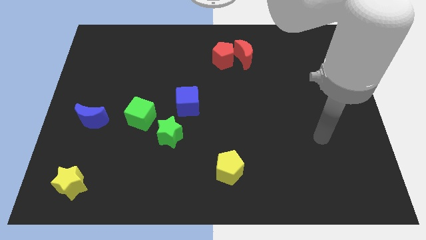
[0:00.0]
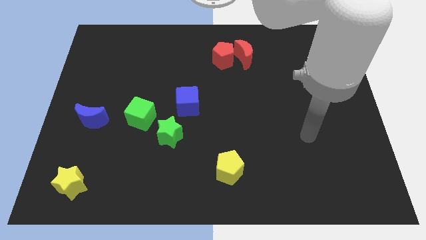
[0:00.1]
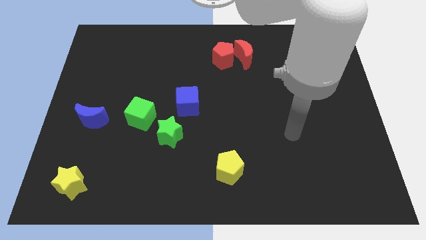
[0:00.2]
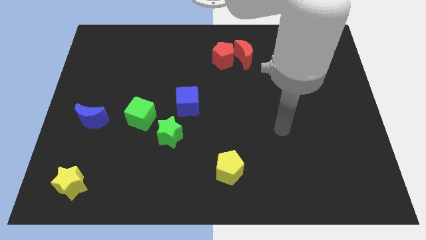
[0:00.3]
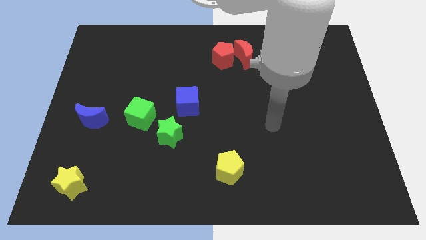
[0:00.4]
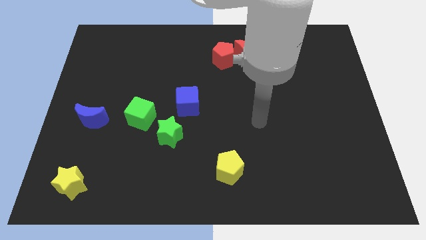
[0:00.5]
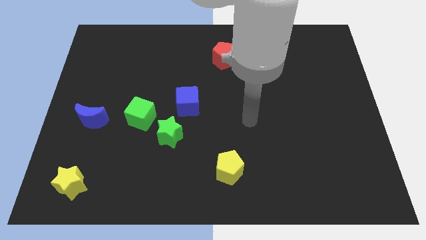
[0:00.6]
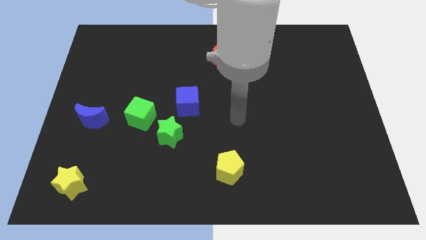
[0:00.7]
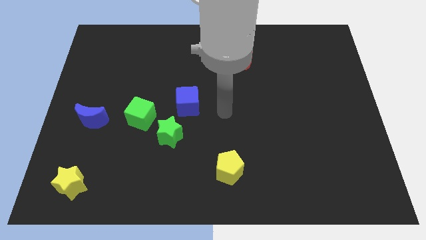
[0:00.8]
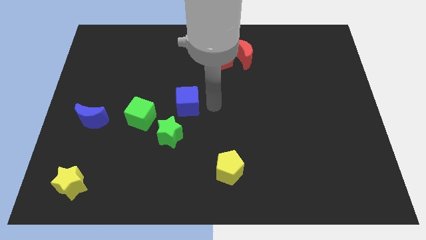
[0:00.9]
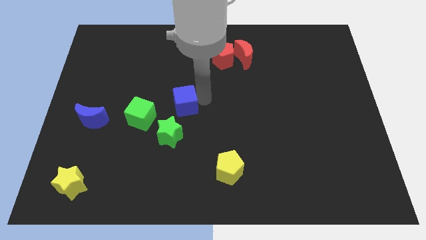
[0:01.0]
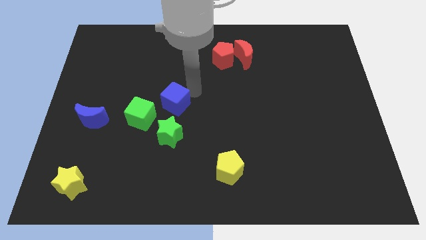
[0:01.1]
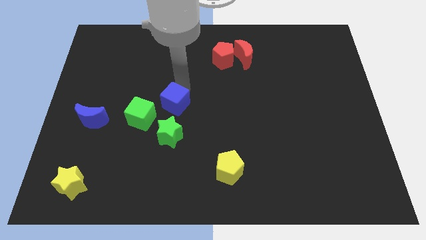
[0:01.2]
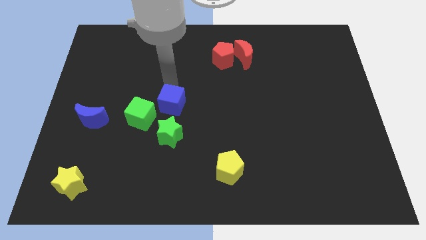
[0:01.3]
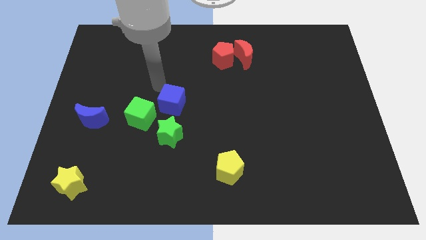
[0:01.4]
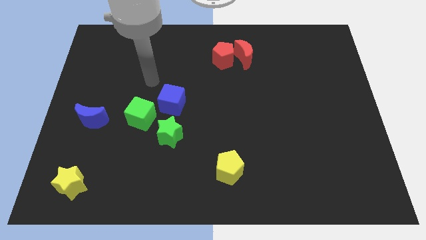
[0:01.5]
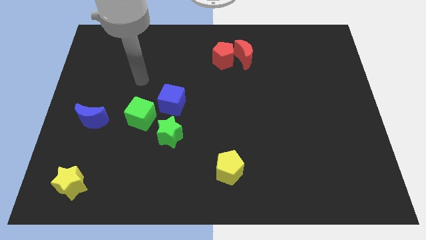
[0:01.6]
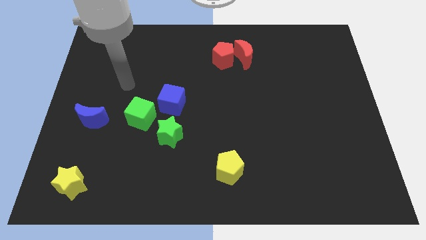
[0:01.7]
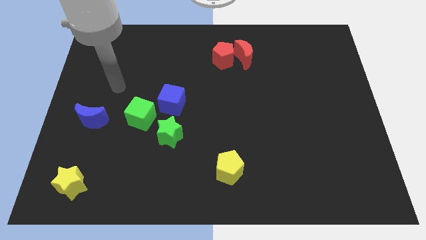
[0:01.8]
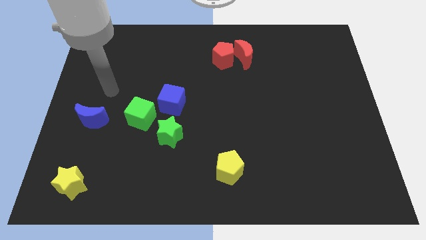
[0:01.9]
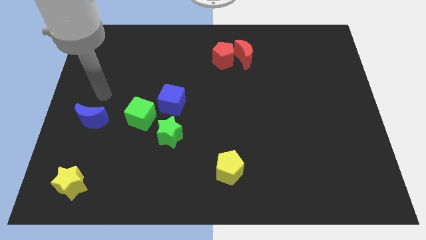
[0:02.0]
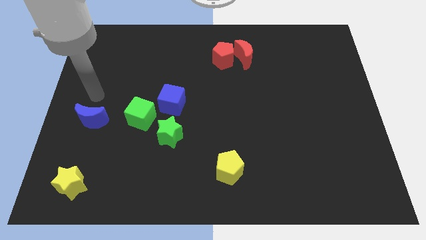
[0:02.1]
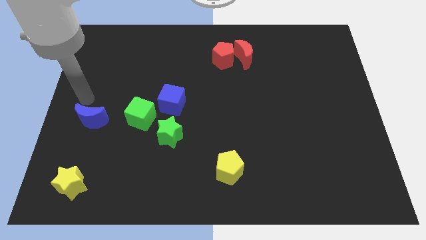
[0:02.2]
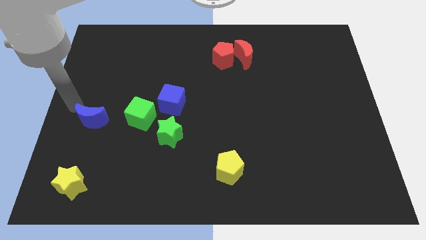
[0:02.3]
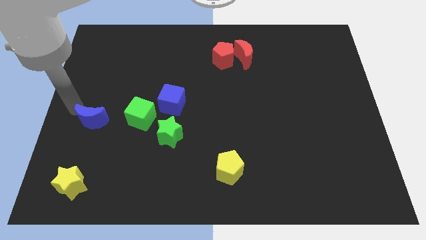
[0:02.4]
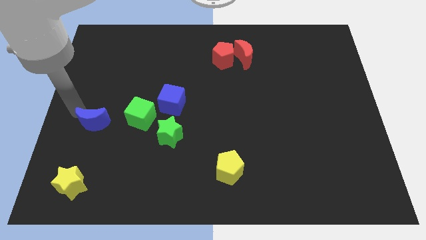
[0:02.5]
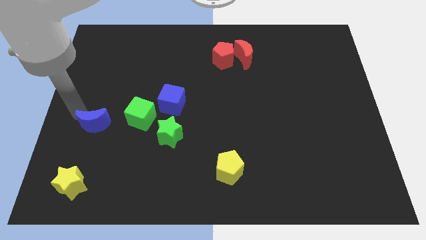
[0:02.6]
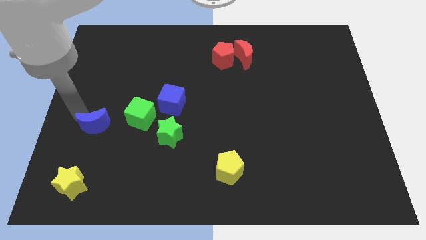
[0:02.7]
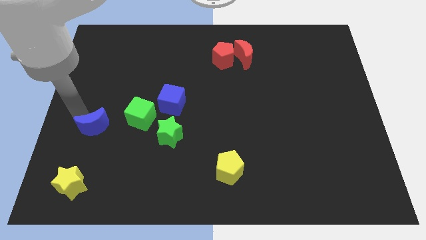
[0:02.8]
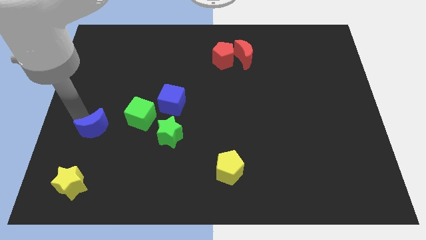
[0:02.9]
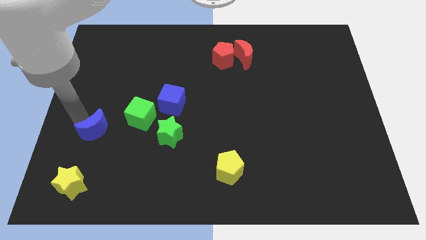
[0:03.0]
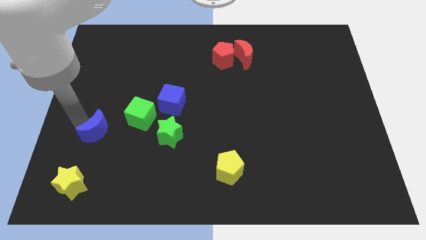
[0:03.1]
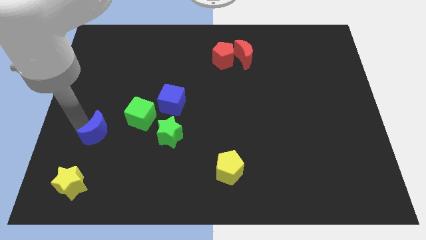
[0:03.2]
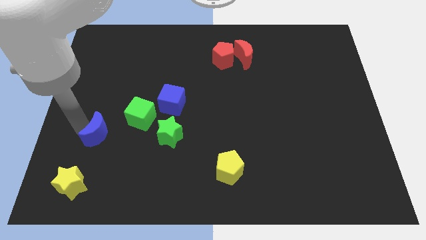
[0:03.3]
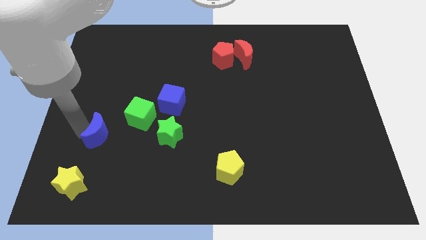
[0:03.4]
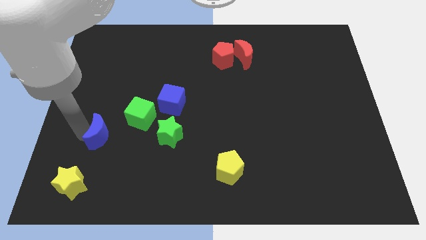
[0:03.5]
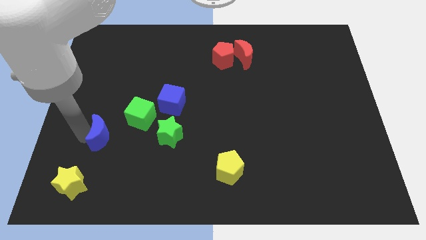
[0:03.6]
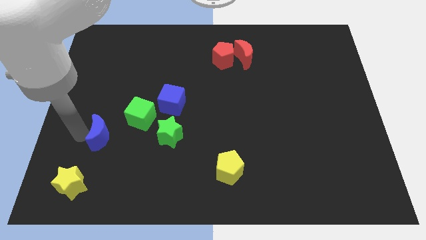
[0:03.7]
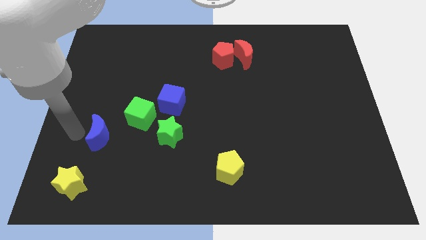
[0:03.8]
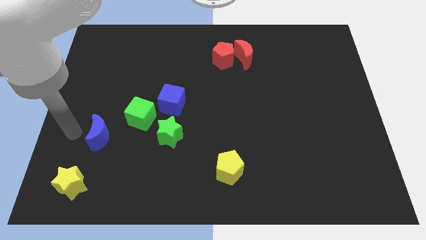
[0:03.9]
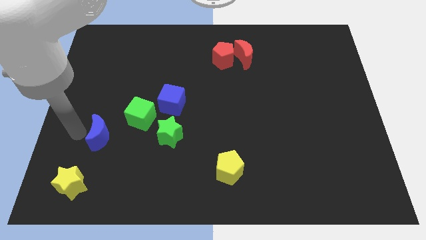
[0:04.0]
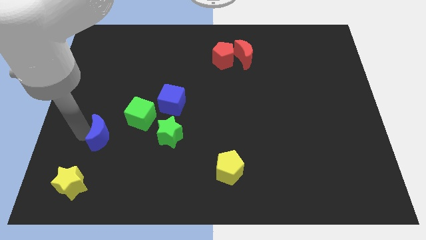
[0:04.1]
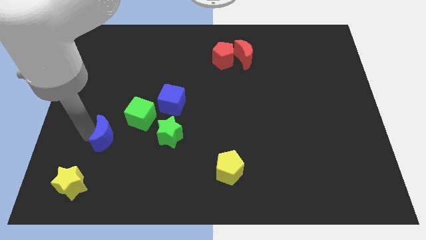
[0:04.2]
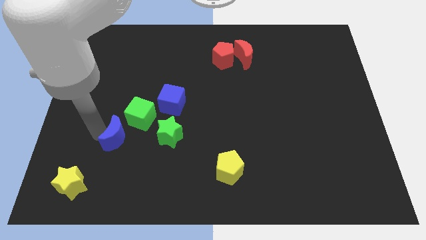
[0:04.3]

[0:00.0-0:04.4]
move the blue moon down and right a little

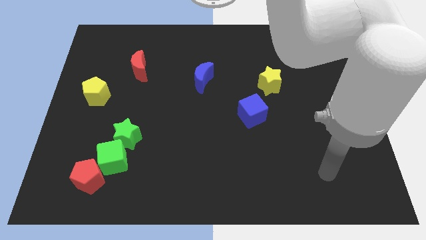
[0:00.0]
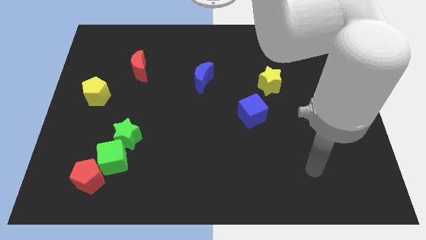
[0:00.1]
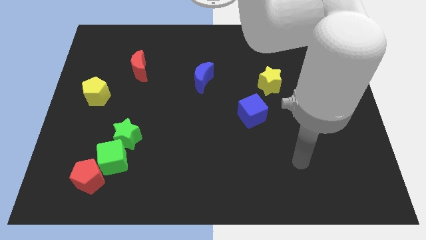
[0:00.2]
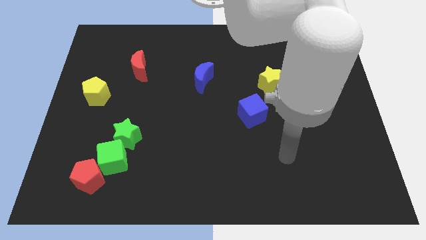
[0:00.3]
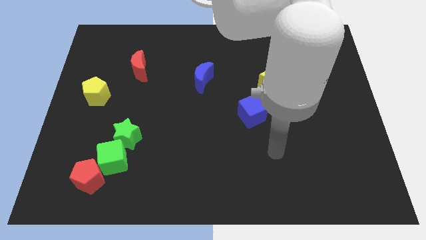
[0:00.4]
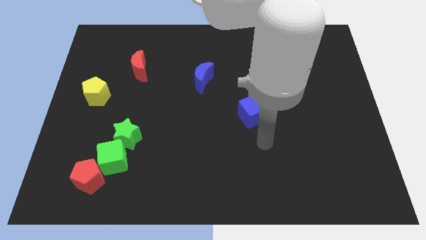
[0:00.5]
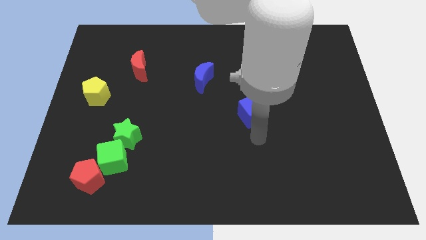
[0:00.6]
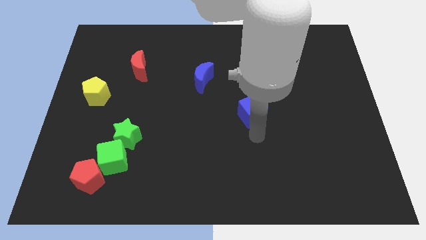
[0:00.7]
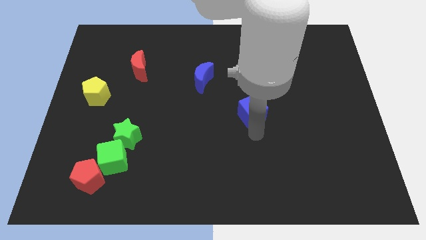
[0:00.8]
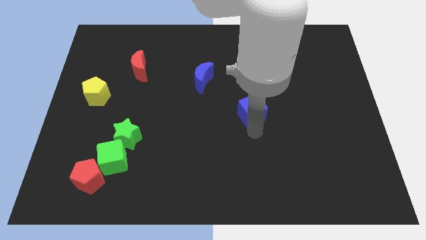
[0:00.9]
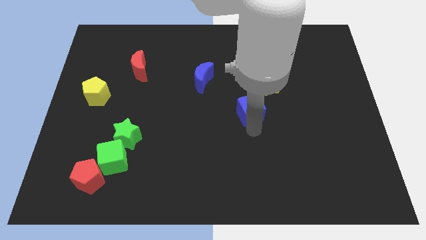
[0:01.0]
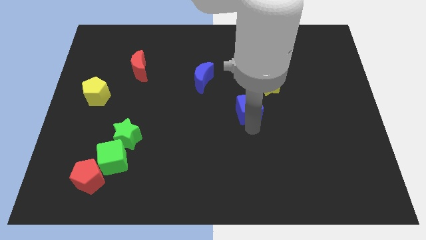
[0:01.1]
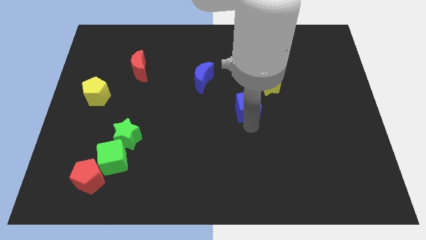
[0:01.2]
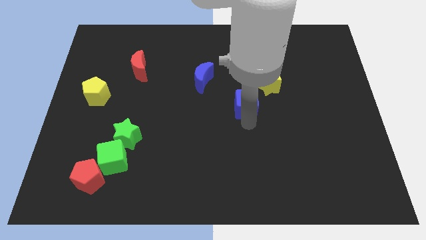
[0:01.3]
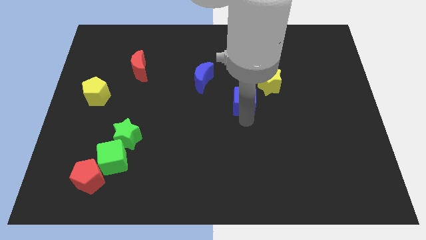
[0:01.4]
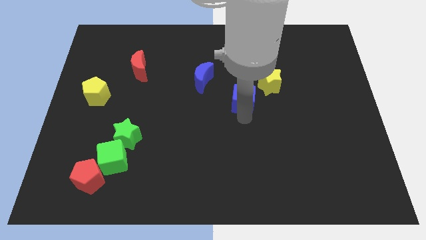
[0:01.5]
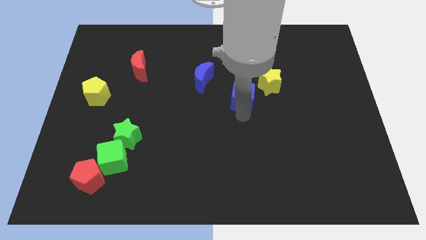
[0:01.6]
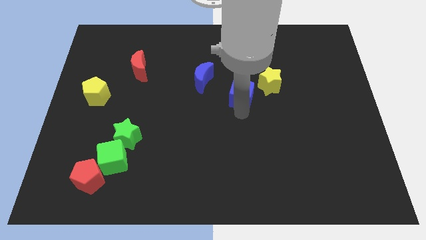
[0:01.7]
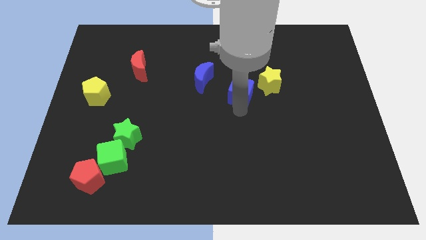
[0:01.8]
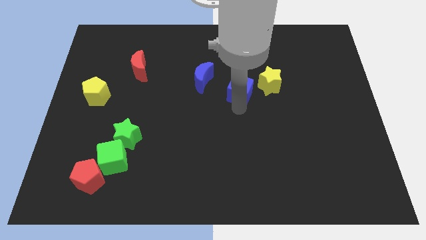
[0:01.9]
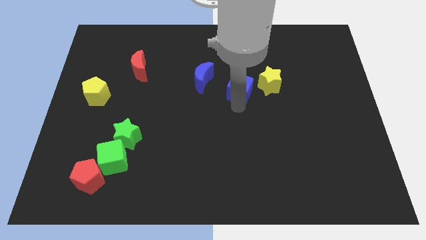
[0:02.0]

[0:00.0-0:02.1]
slide the blue cube a bit upwards

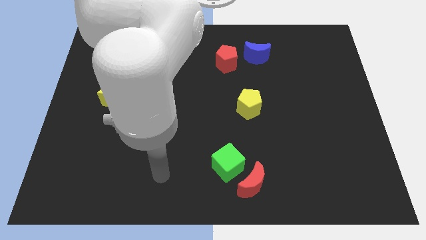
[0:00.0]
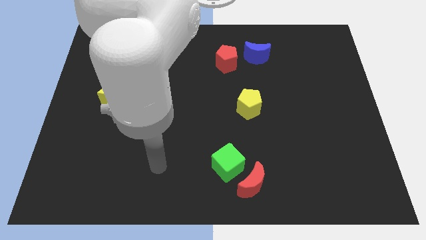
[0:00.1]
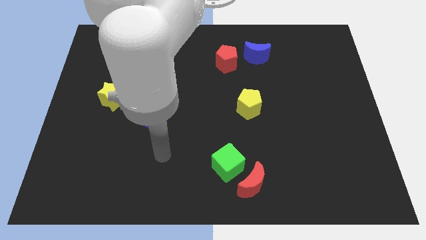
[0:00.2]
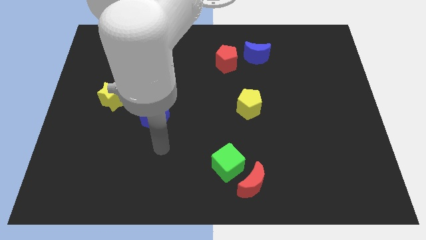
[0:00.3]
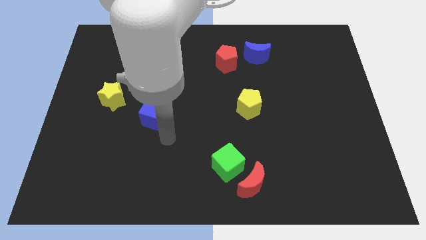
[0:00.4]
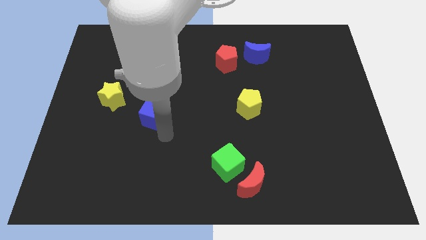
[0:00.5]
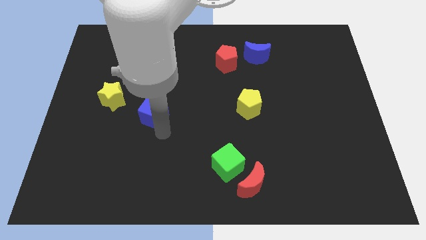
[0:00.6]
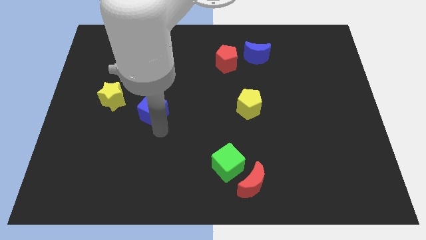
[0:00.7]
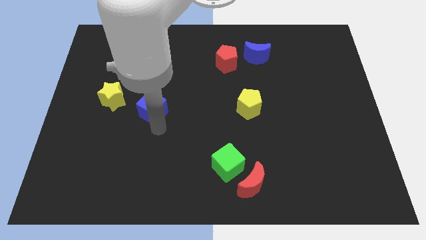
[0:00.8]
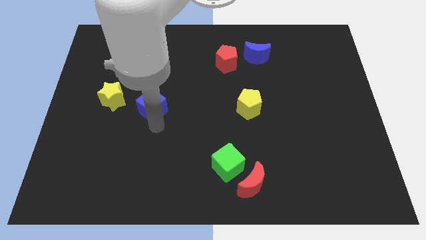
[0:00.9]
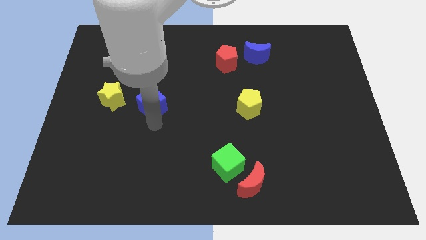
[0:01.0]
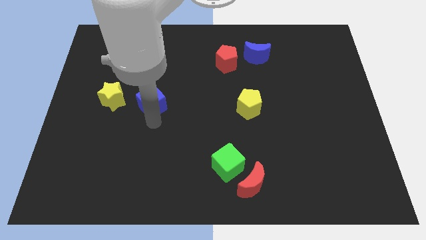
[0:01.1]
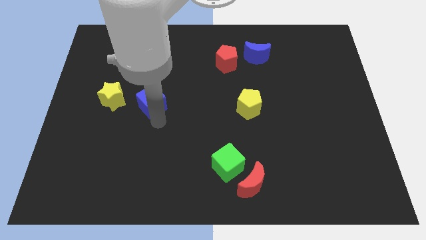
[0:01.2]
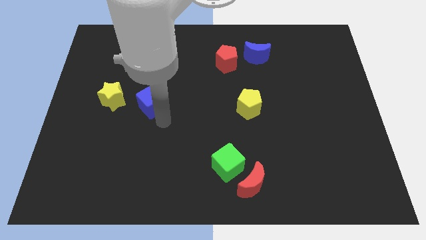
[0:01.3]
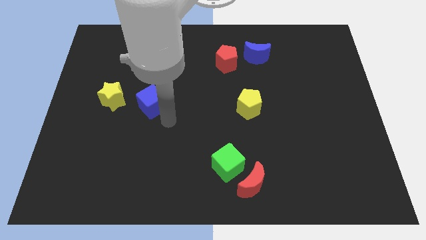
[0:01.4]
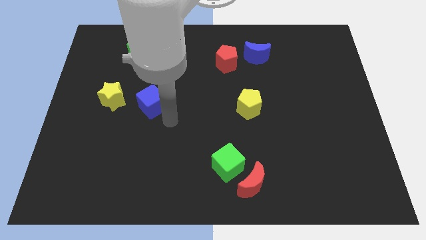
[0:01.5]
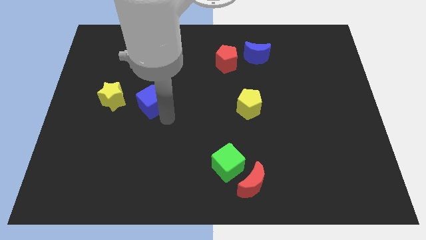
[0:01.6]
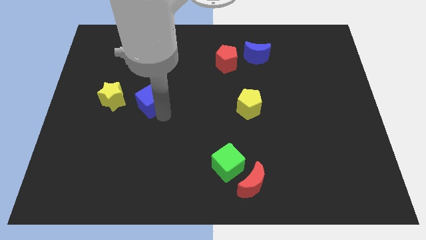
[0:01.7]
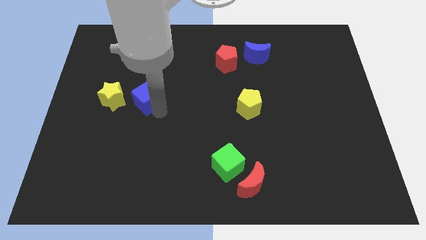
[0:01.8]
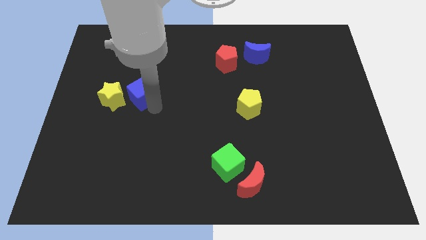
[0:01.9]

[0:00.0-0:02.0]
move the blue cube upwards and left a little
